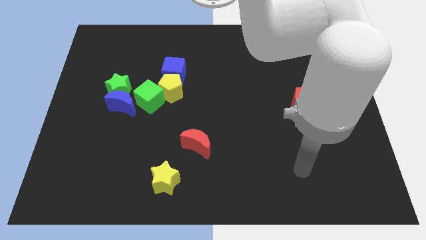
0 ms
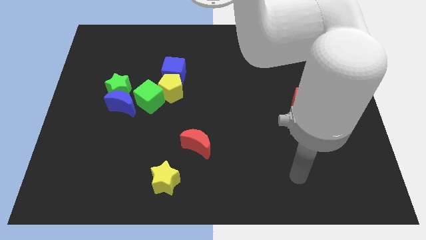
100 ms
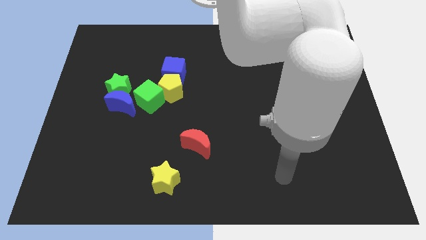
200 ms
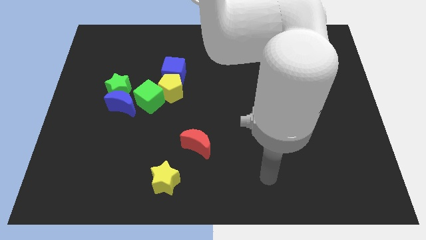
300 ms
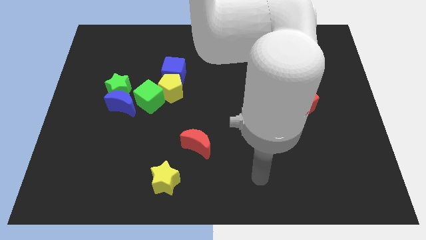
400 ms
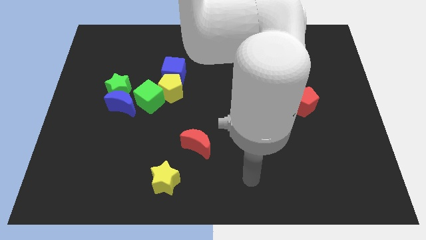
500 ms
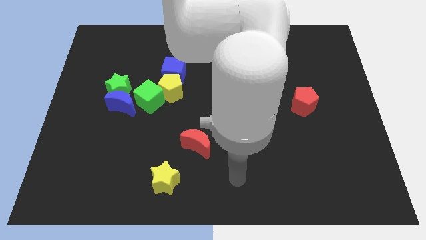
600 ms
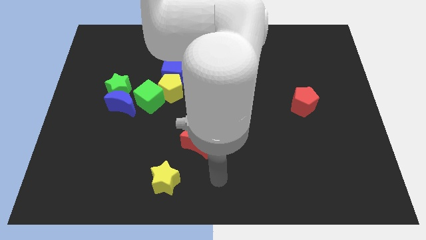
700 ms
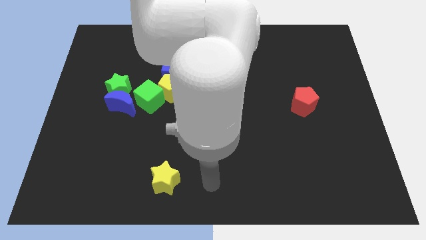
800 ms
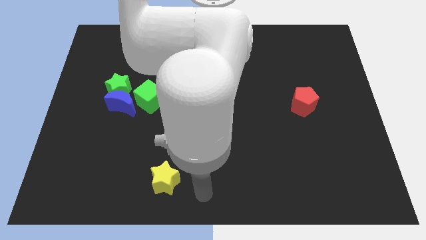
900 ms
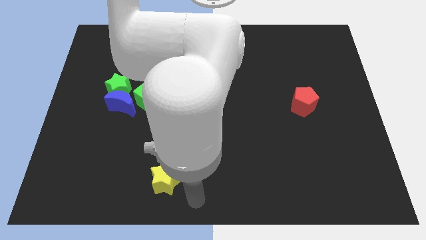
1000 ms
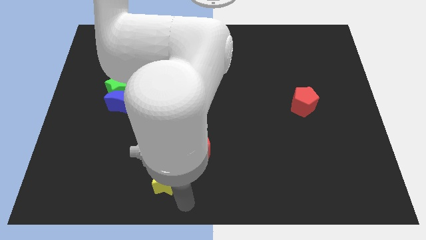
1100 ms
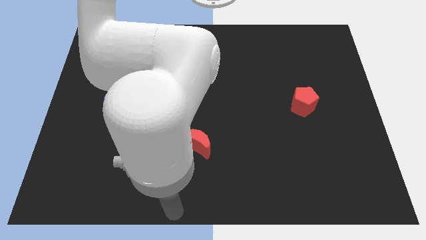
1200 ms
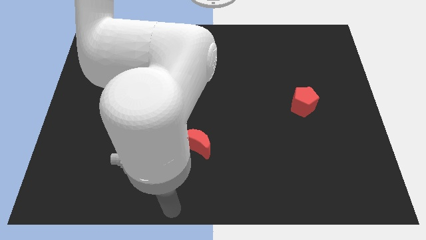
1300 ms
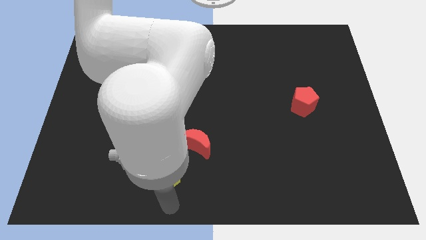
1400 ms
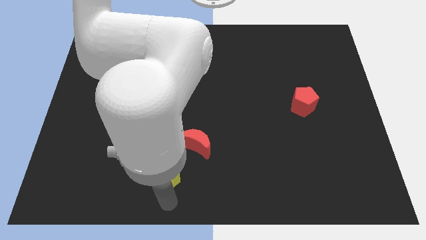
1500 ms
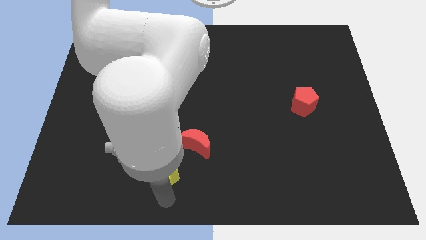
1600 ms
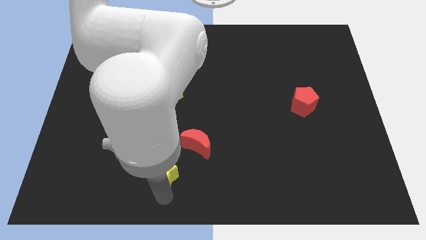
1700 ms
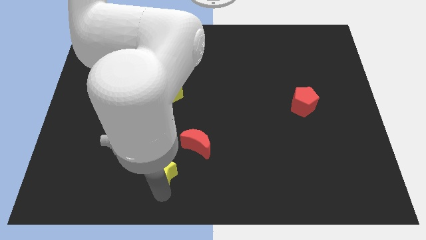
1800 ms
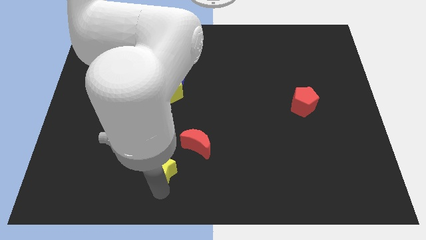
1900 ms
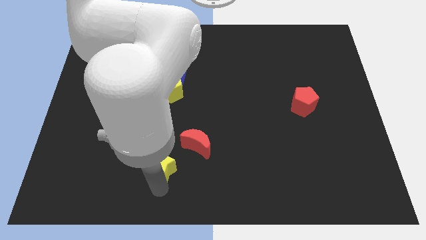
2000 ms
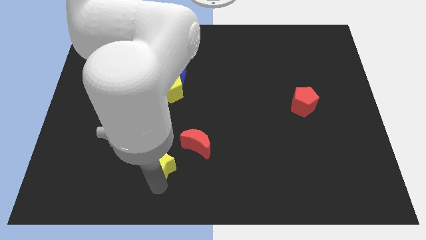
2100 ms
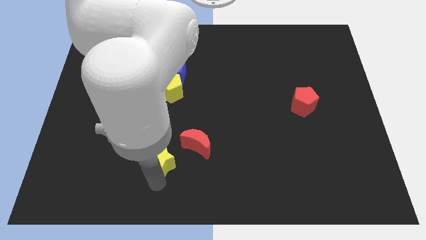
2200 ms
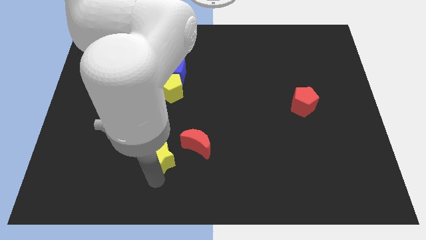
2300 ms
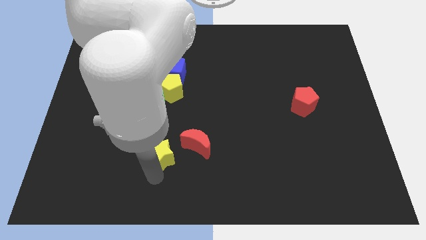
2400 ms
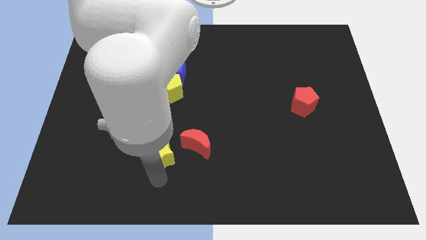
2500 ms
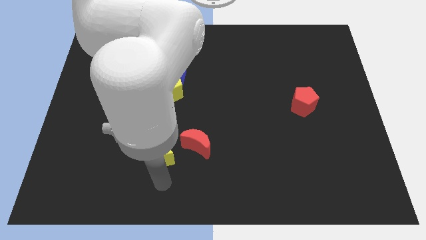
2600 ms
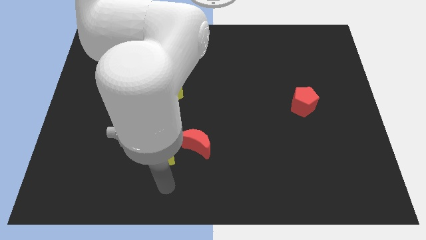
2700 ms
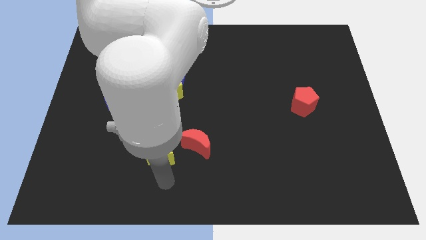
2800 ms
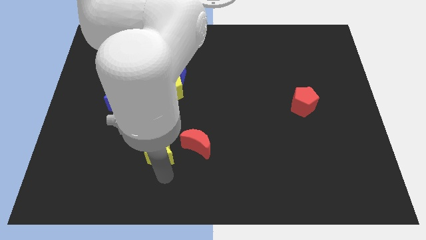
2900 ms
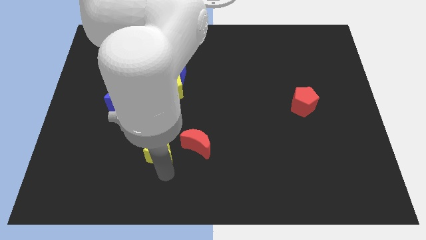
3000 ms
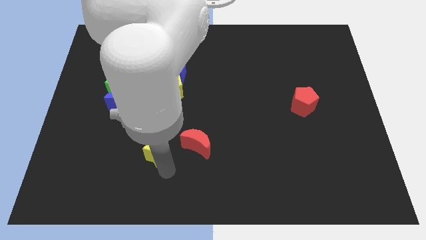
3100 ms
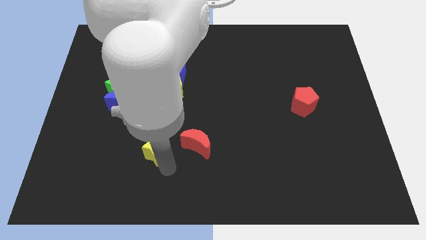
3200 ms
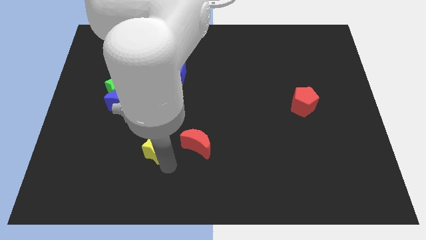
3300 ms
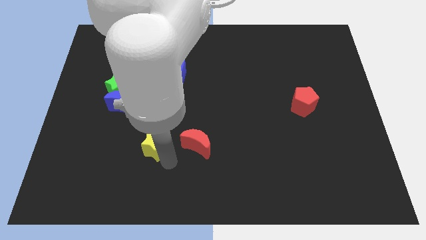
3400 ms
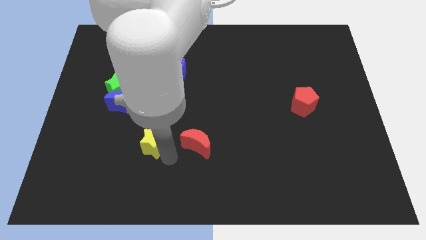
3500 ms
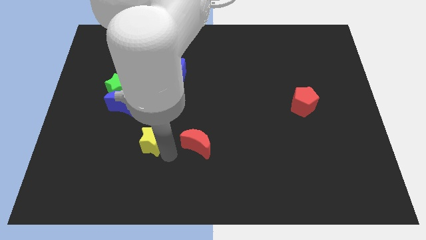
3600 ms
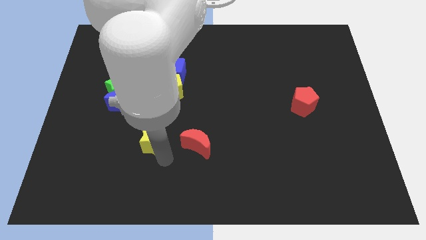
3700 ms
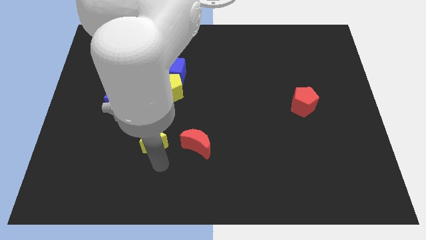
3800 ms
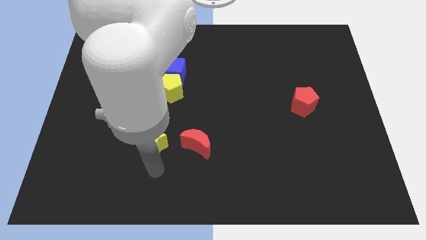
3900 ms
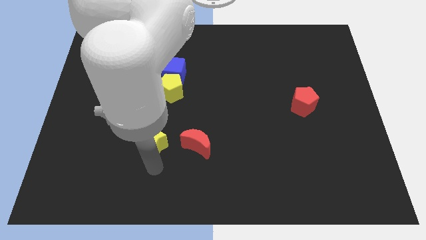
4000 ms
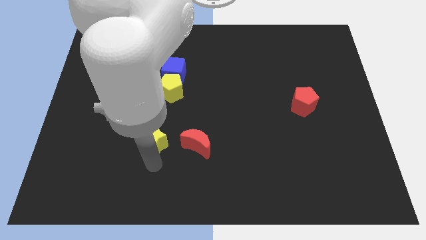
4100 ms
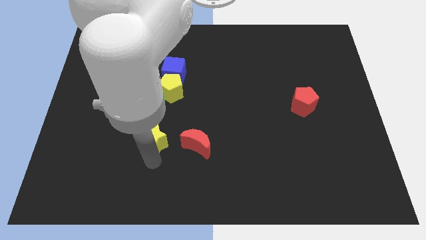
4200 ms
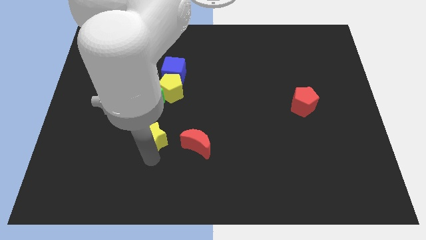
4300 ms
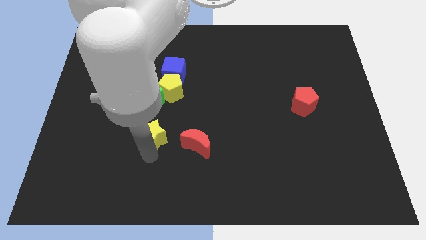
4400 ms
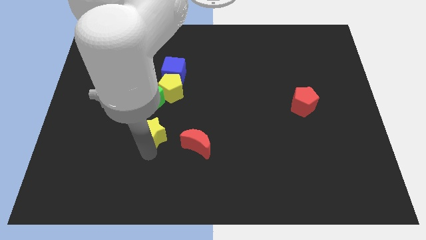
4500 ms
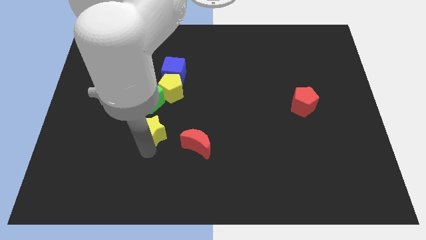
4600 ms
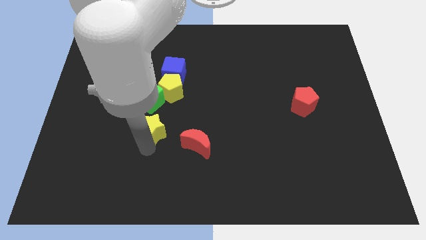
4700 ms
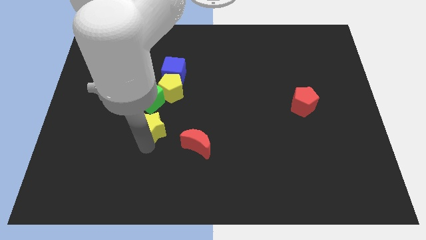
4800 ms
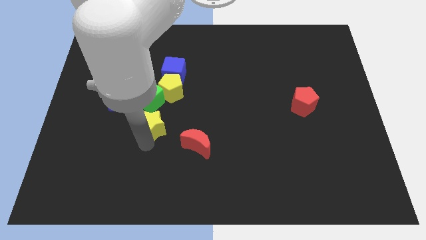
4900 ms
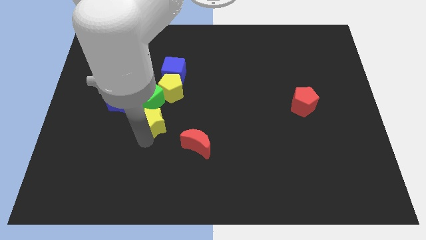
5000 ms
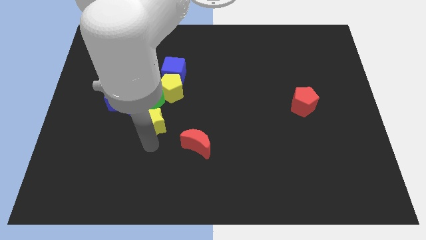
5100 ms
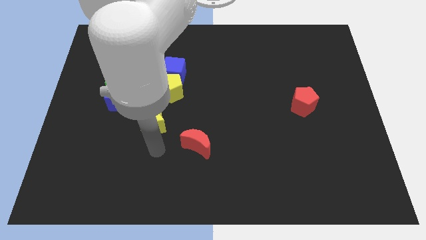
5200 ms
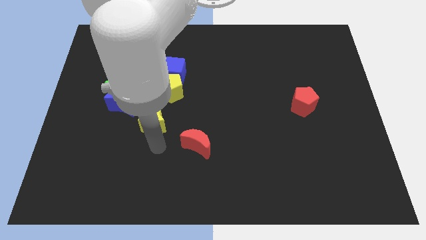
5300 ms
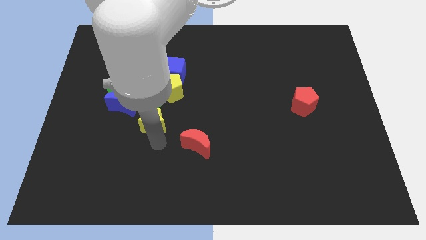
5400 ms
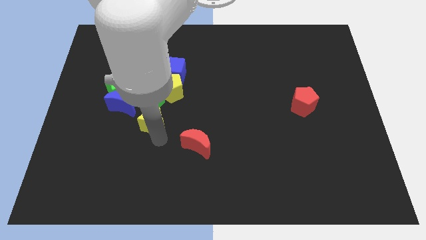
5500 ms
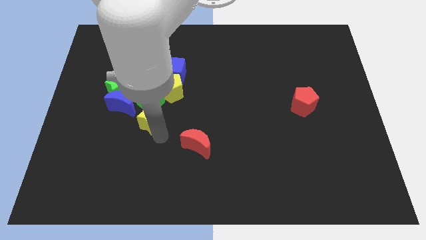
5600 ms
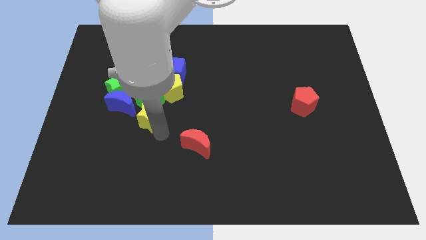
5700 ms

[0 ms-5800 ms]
push the yellow star towards the green cube

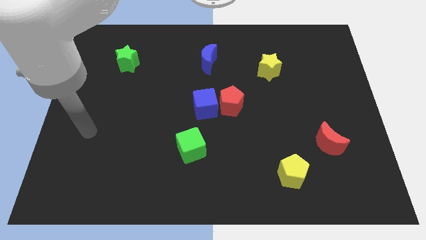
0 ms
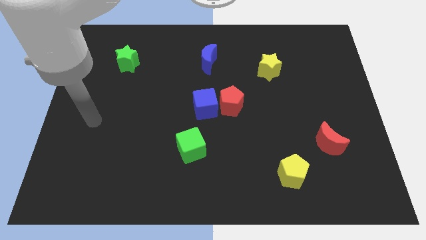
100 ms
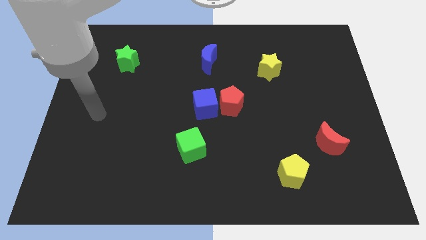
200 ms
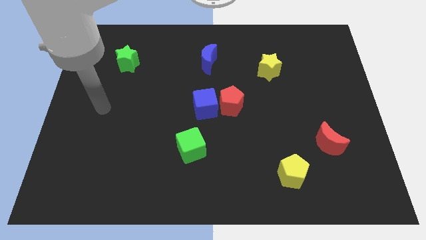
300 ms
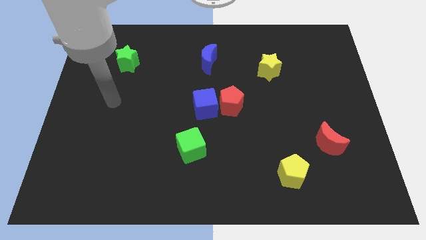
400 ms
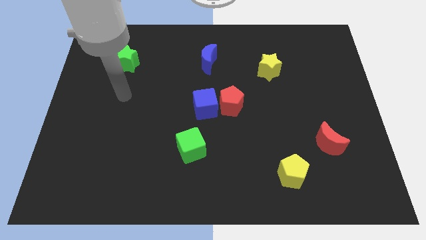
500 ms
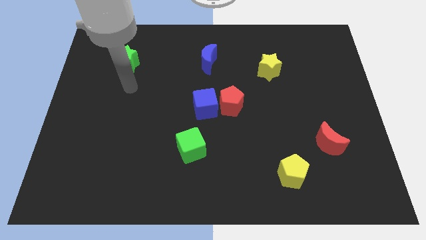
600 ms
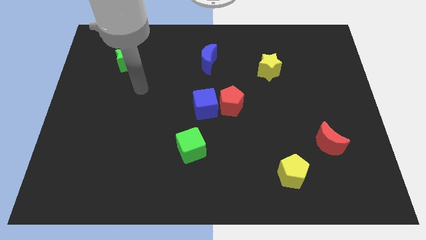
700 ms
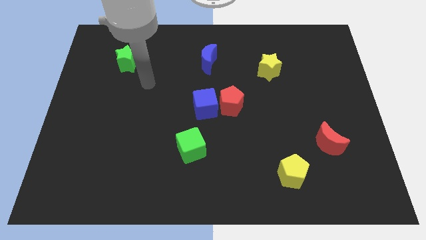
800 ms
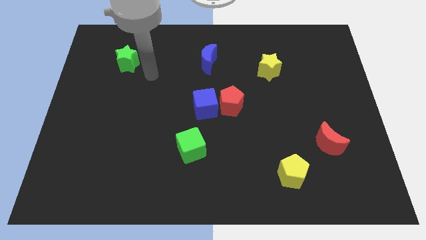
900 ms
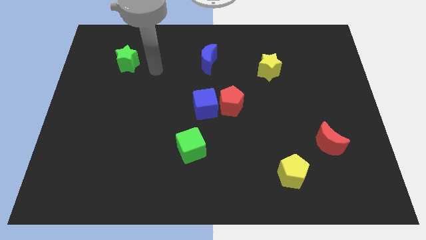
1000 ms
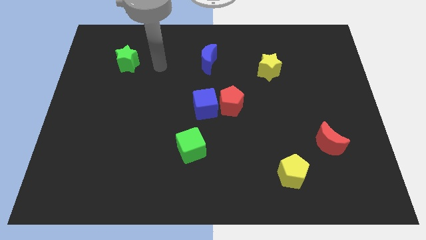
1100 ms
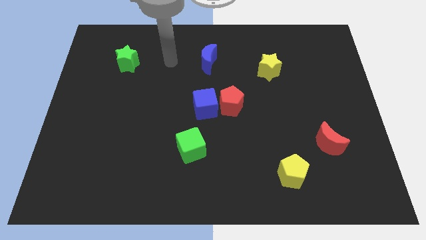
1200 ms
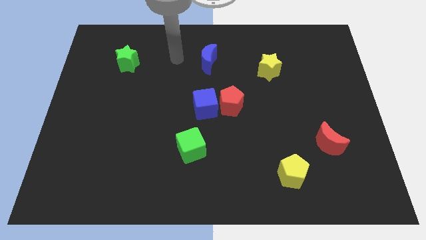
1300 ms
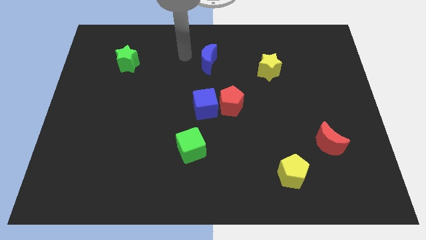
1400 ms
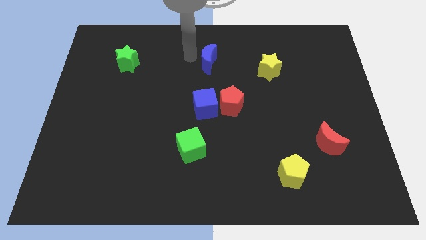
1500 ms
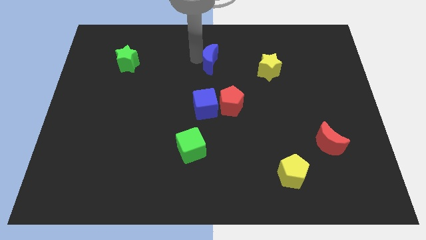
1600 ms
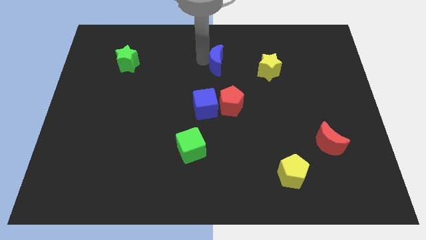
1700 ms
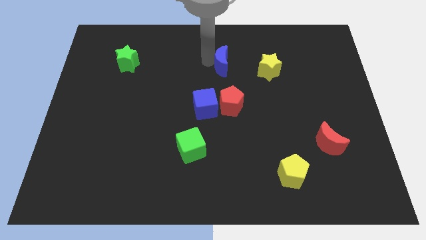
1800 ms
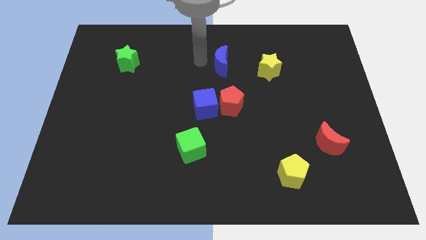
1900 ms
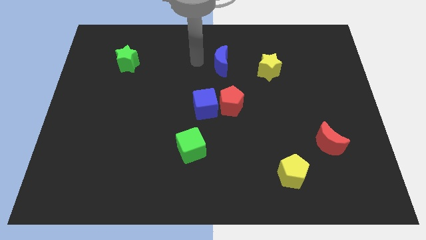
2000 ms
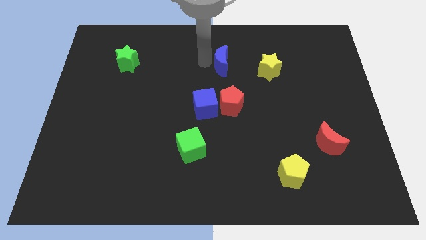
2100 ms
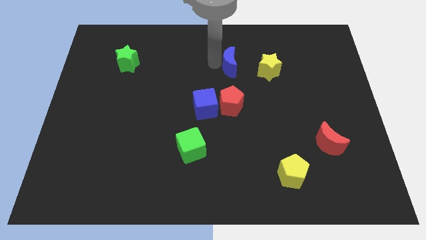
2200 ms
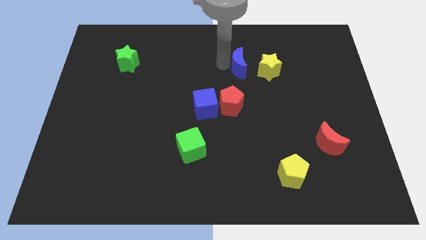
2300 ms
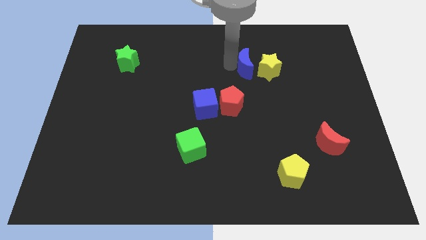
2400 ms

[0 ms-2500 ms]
slide the blue moon towards the yellow star
